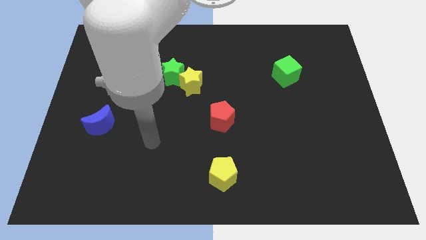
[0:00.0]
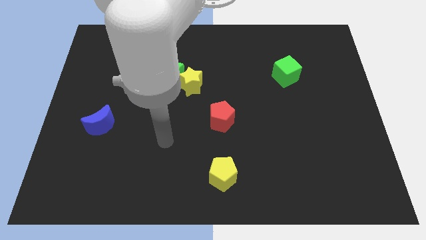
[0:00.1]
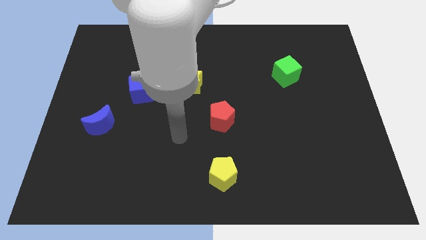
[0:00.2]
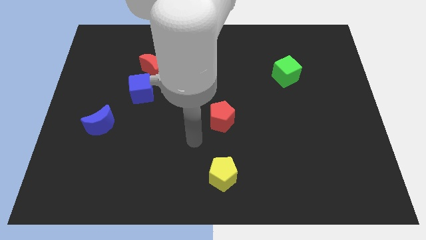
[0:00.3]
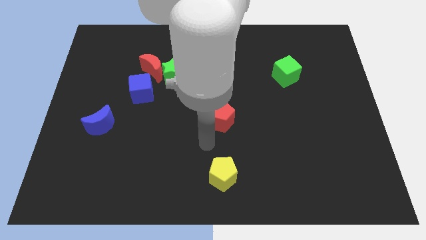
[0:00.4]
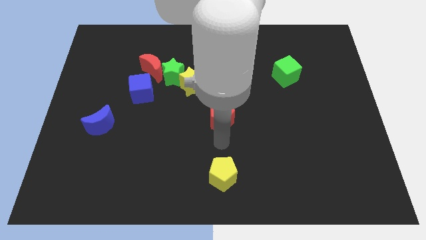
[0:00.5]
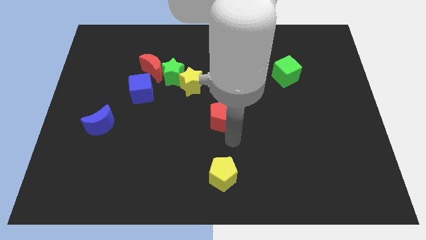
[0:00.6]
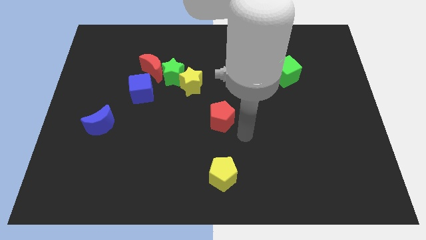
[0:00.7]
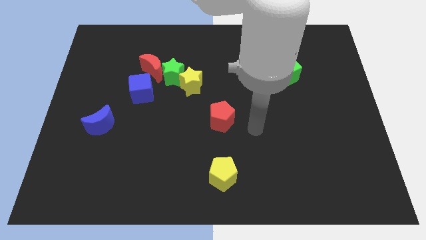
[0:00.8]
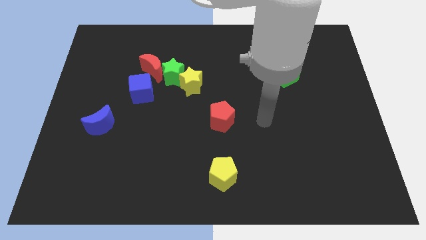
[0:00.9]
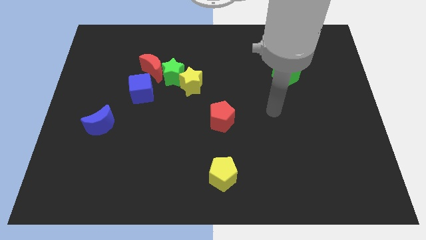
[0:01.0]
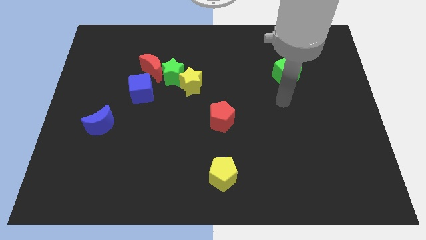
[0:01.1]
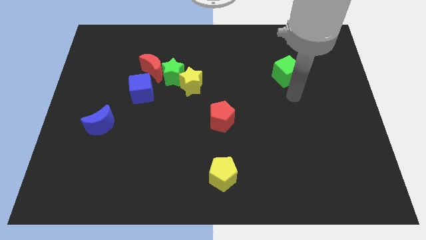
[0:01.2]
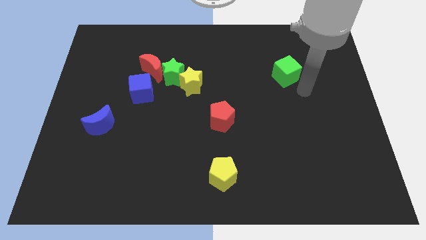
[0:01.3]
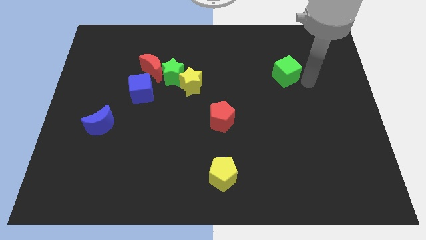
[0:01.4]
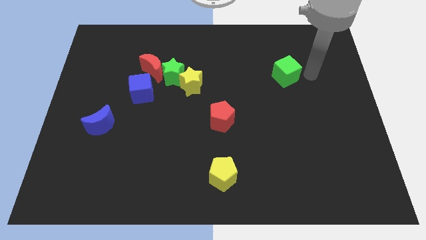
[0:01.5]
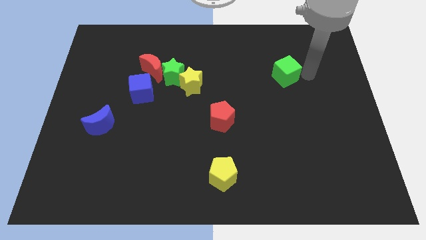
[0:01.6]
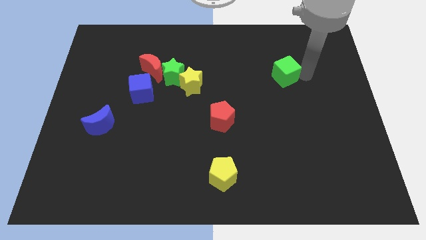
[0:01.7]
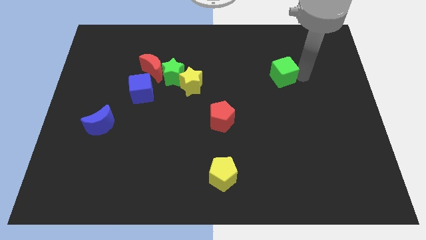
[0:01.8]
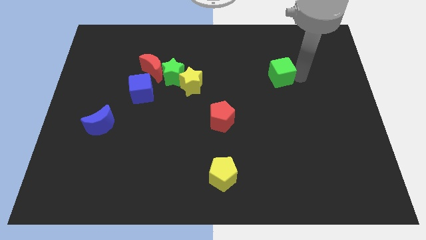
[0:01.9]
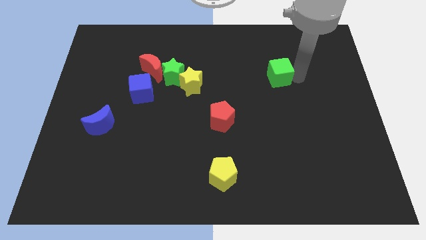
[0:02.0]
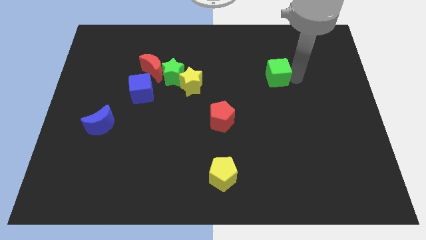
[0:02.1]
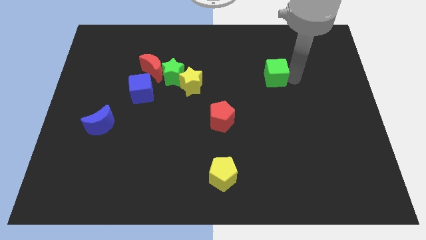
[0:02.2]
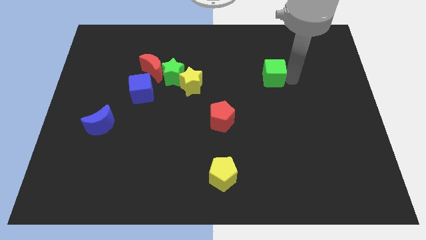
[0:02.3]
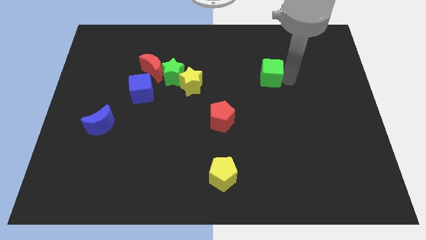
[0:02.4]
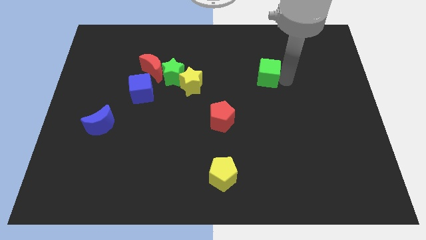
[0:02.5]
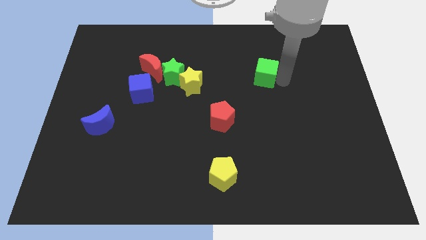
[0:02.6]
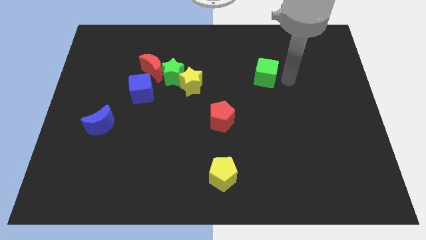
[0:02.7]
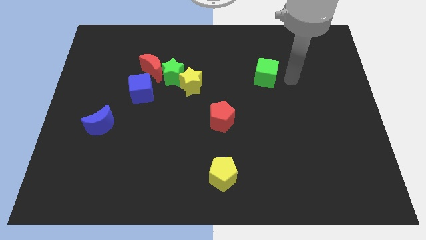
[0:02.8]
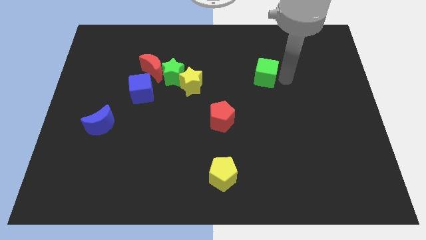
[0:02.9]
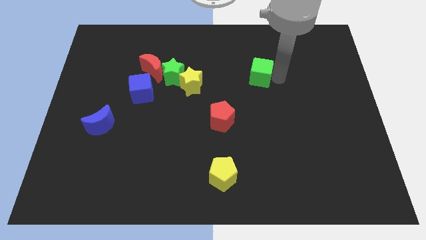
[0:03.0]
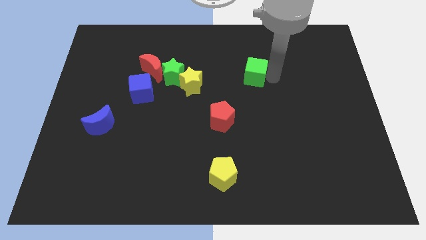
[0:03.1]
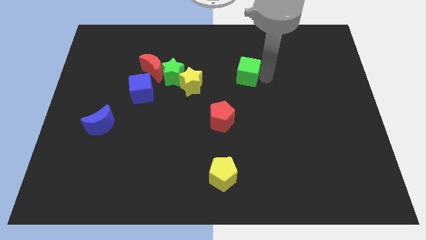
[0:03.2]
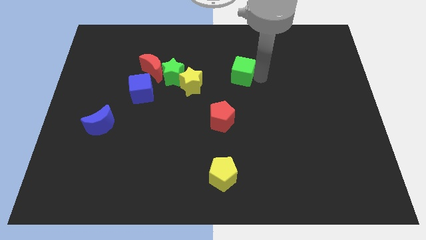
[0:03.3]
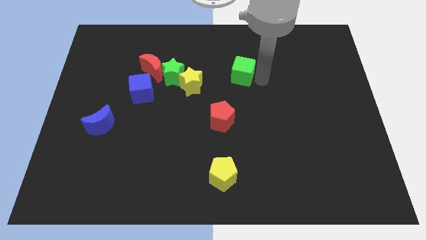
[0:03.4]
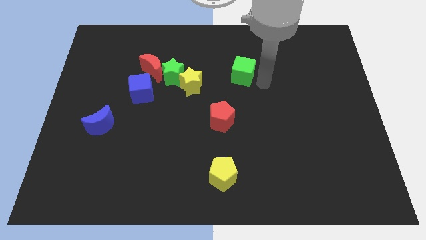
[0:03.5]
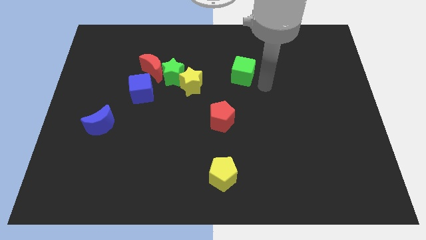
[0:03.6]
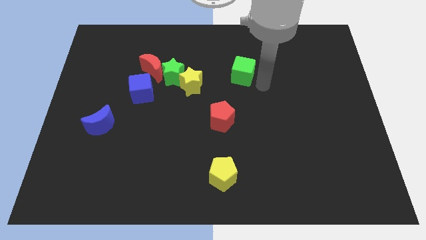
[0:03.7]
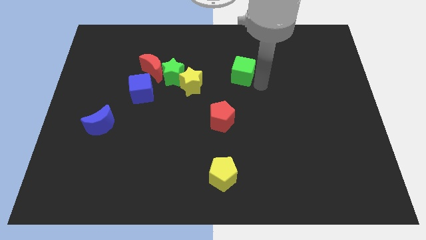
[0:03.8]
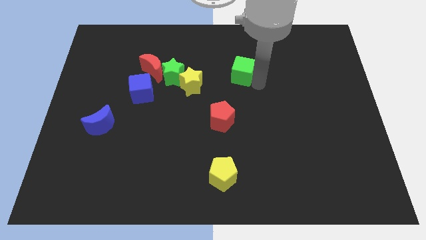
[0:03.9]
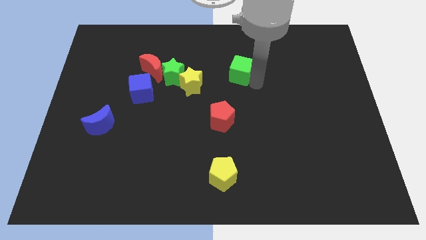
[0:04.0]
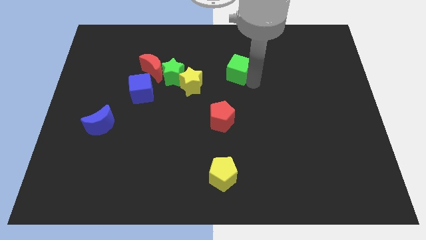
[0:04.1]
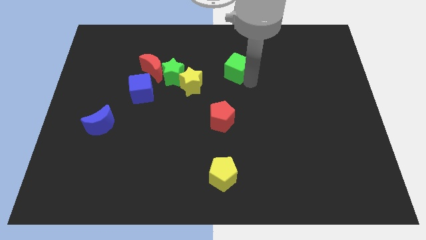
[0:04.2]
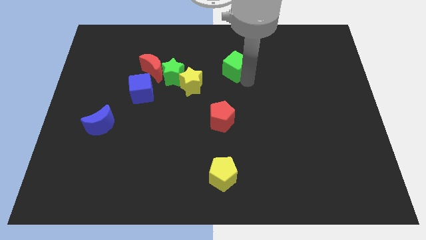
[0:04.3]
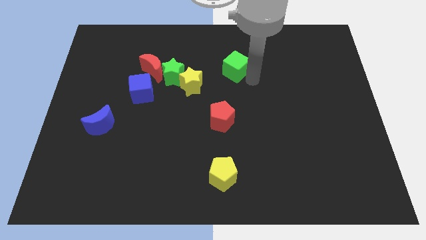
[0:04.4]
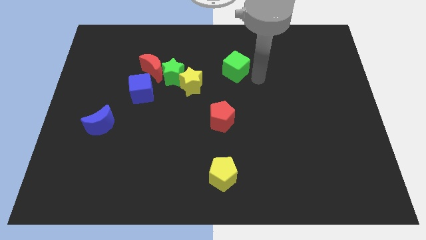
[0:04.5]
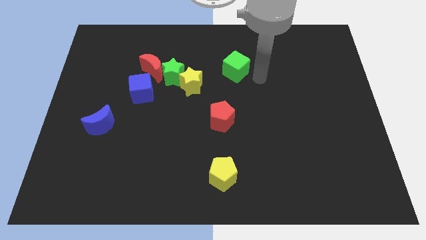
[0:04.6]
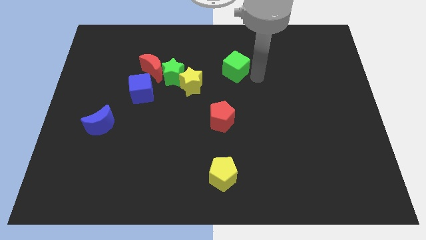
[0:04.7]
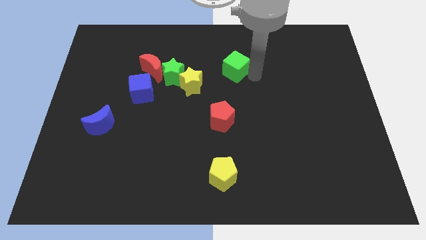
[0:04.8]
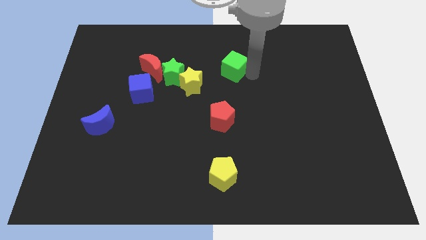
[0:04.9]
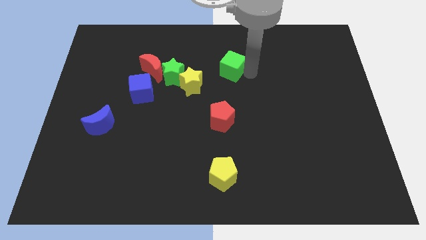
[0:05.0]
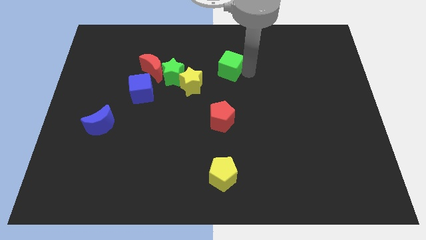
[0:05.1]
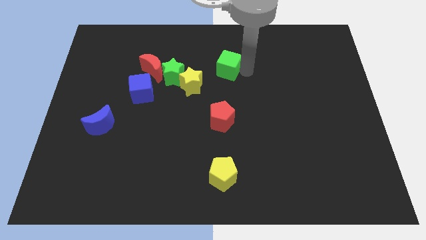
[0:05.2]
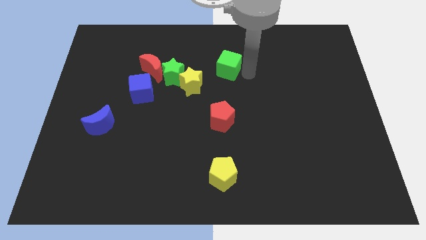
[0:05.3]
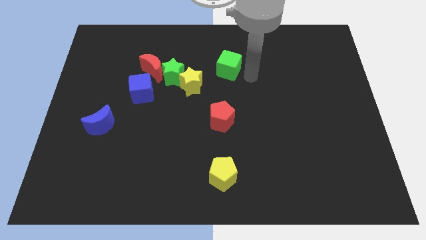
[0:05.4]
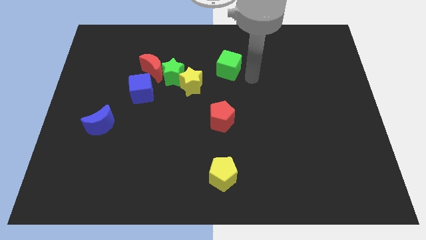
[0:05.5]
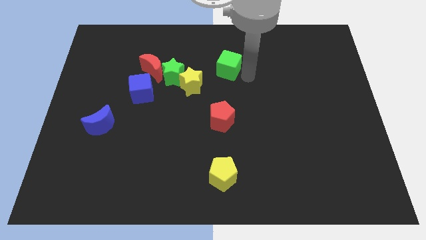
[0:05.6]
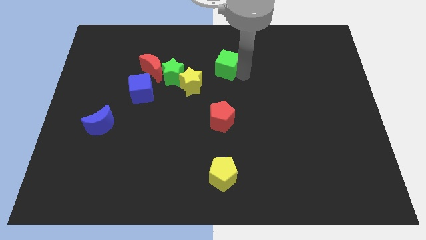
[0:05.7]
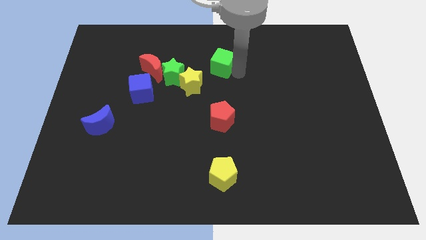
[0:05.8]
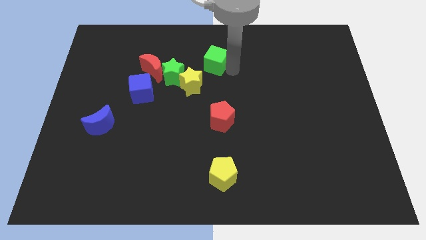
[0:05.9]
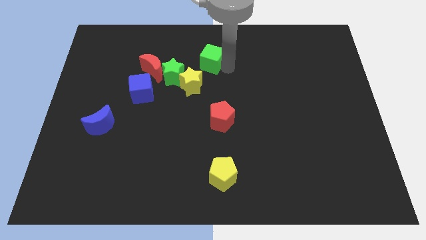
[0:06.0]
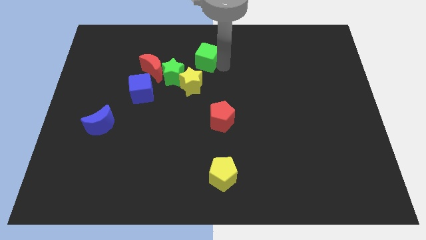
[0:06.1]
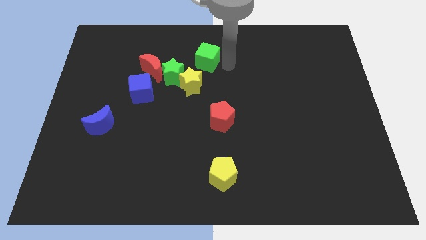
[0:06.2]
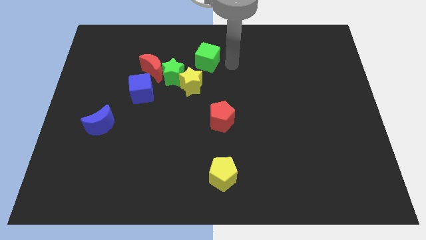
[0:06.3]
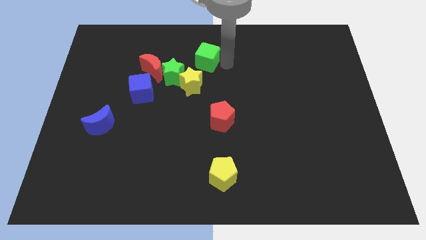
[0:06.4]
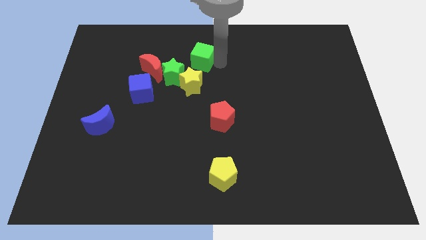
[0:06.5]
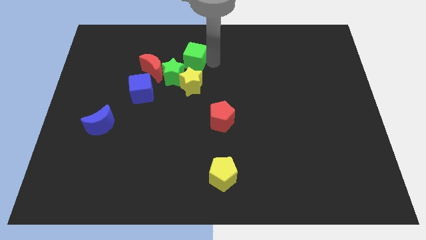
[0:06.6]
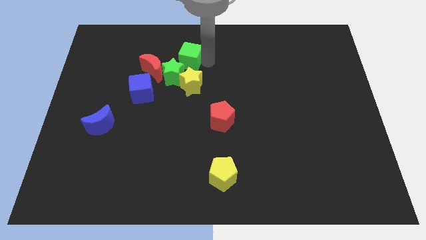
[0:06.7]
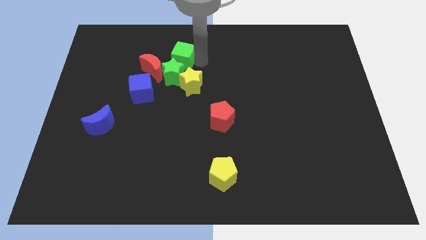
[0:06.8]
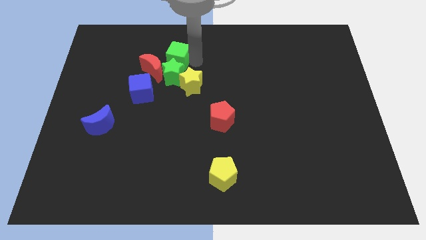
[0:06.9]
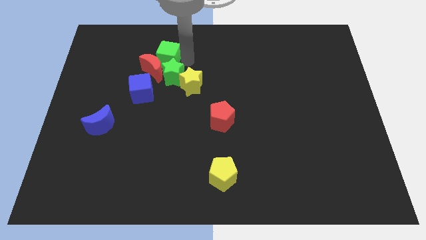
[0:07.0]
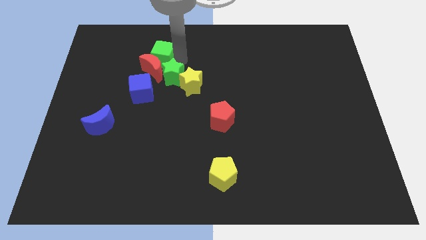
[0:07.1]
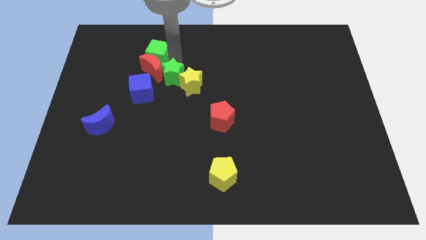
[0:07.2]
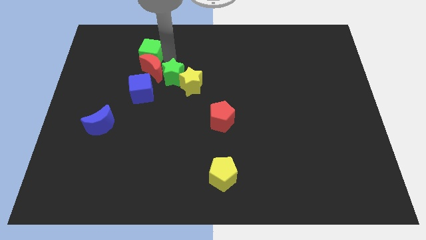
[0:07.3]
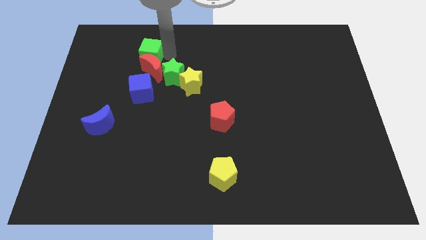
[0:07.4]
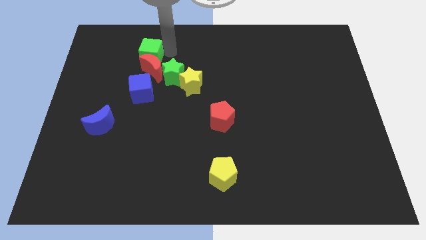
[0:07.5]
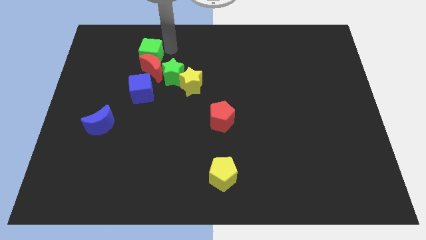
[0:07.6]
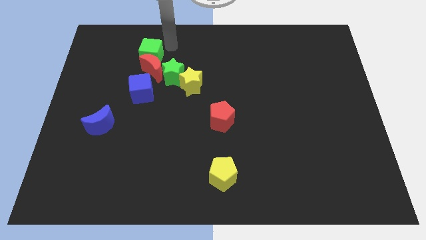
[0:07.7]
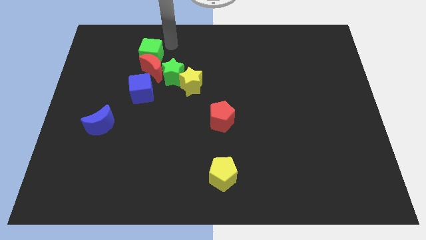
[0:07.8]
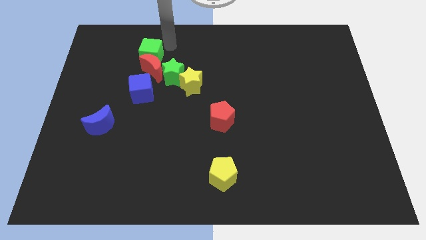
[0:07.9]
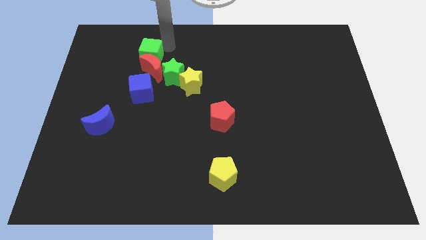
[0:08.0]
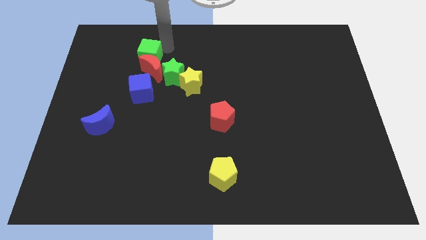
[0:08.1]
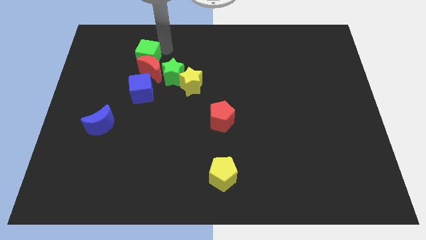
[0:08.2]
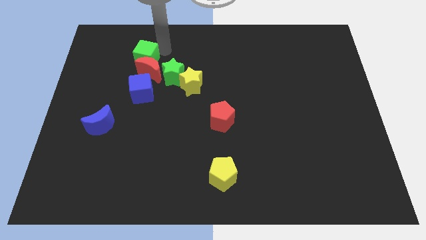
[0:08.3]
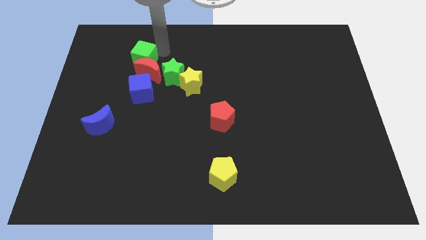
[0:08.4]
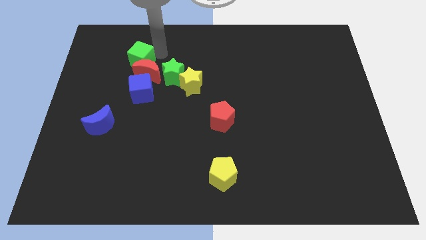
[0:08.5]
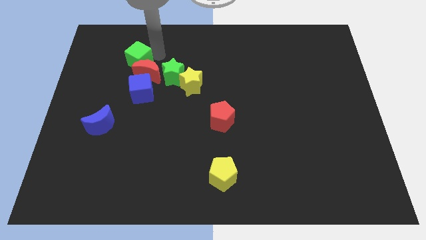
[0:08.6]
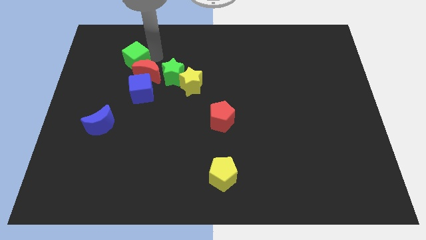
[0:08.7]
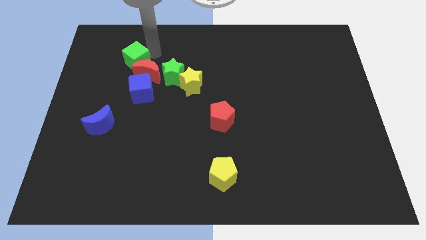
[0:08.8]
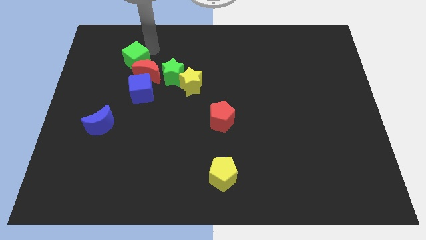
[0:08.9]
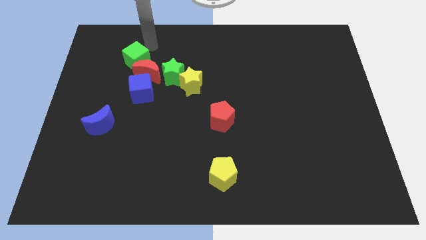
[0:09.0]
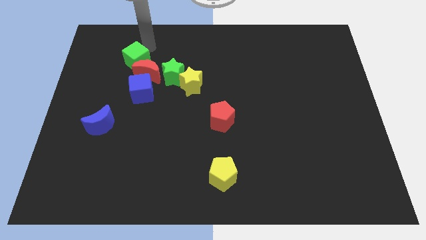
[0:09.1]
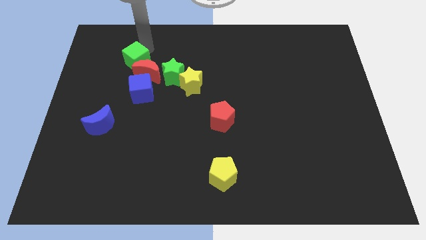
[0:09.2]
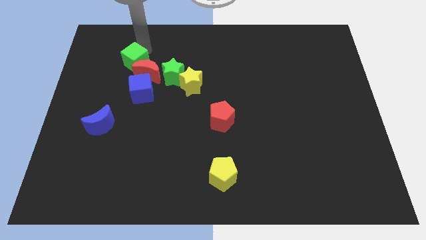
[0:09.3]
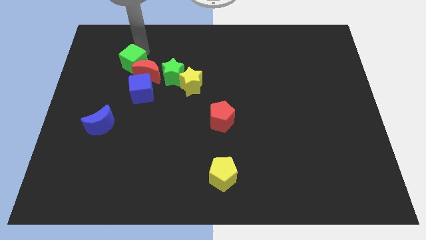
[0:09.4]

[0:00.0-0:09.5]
push the green cube diagonally up and to the left of the blue cube
